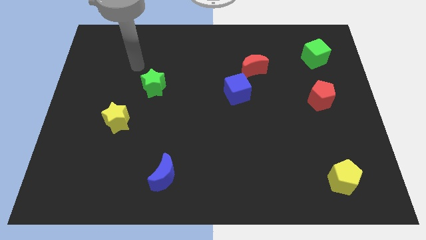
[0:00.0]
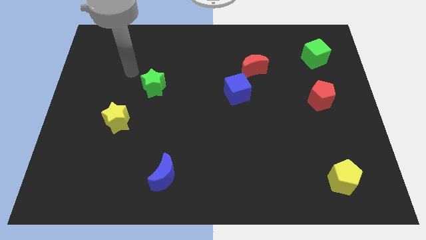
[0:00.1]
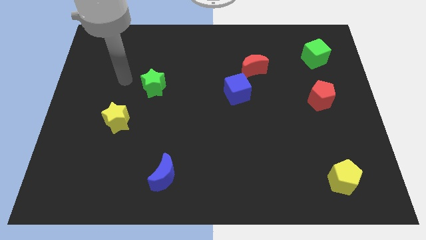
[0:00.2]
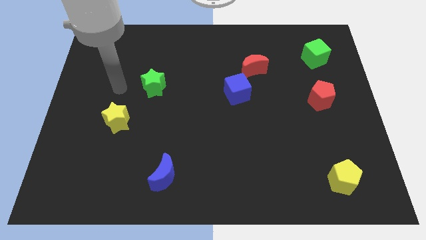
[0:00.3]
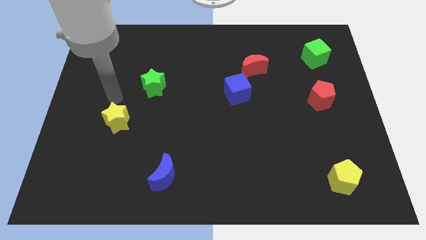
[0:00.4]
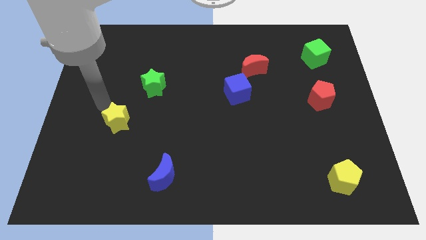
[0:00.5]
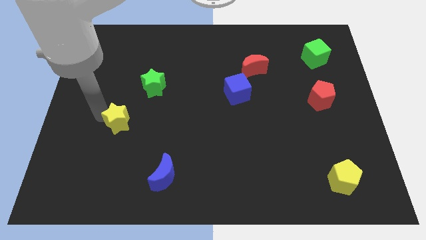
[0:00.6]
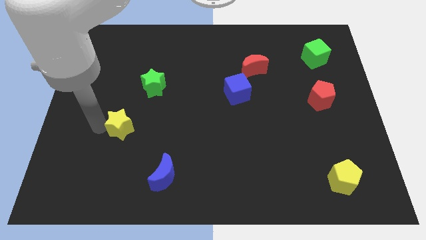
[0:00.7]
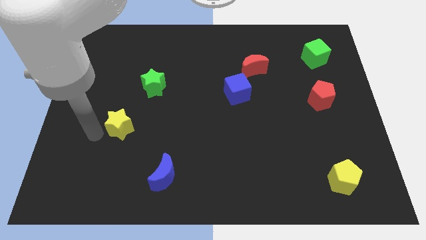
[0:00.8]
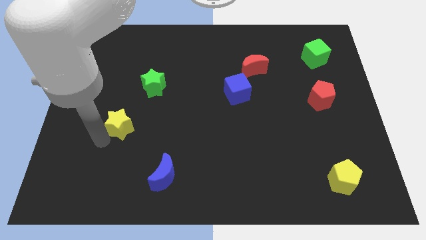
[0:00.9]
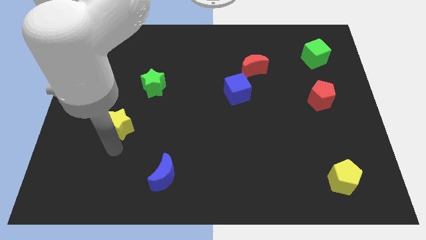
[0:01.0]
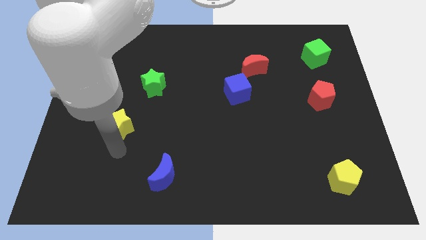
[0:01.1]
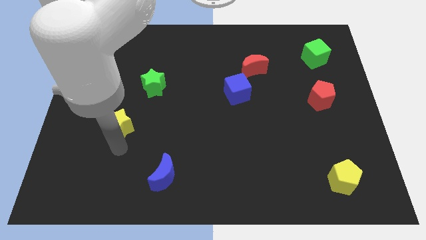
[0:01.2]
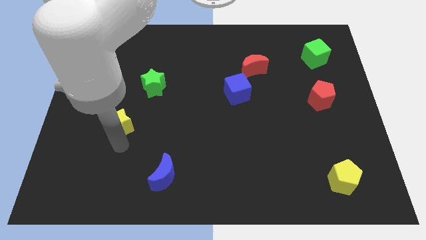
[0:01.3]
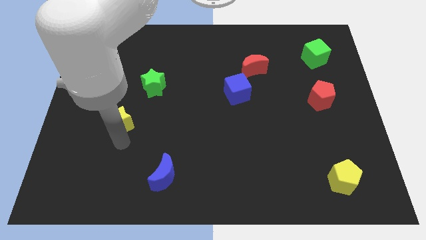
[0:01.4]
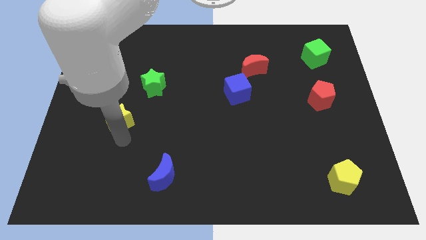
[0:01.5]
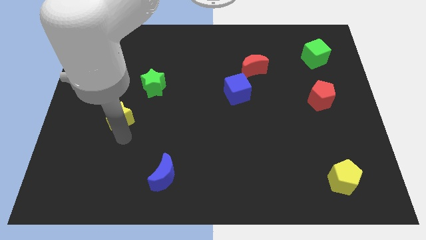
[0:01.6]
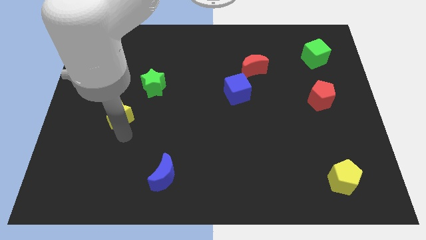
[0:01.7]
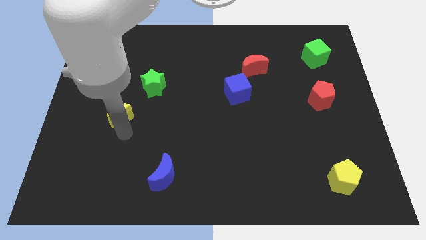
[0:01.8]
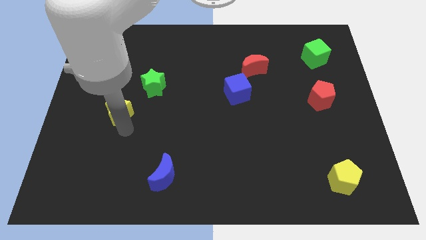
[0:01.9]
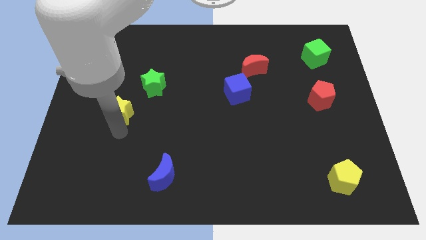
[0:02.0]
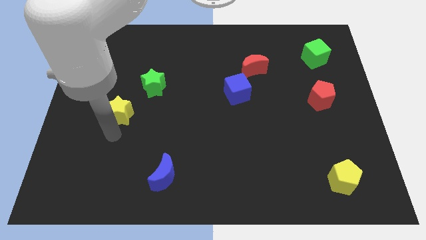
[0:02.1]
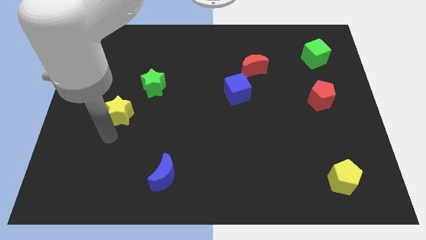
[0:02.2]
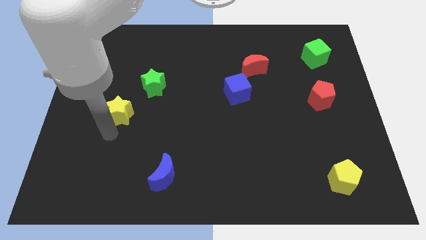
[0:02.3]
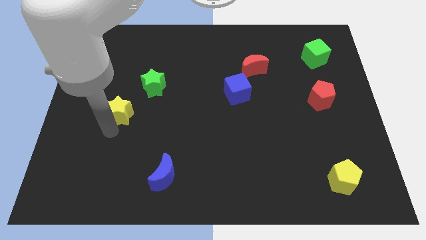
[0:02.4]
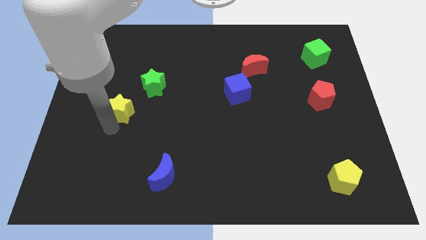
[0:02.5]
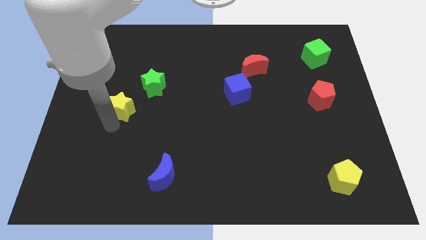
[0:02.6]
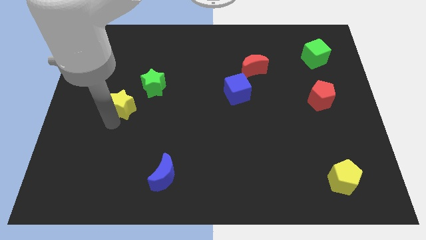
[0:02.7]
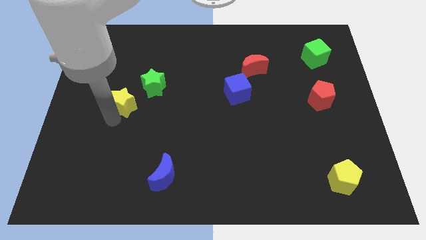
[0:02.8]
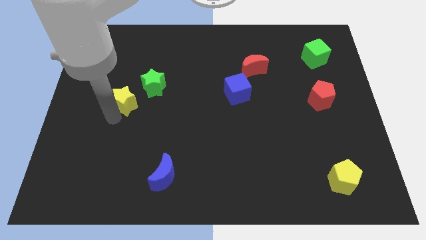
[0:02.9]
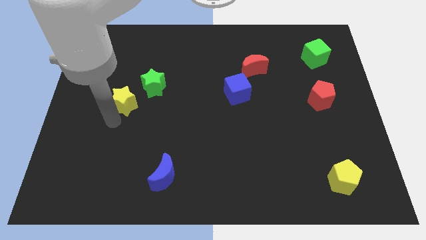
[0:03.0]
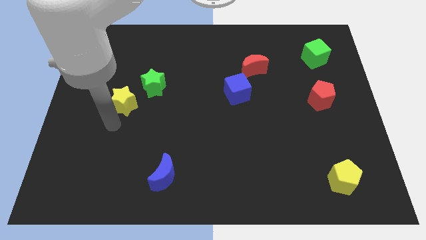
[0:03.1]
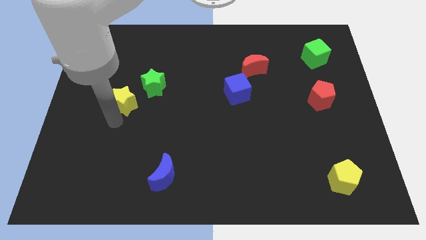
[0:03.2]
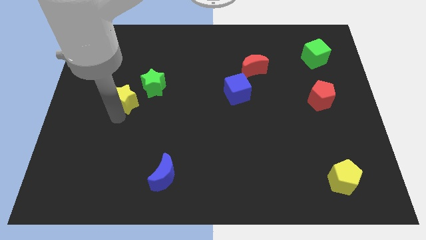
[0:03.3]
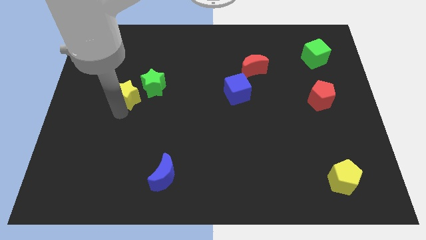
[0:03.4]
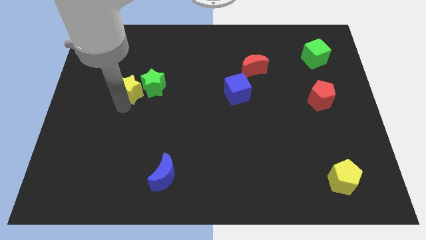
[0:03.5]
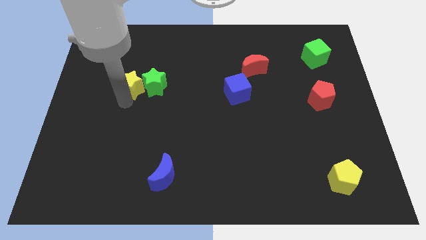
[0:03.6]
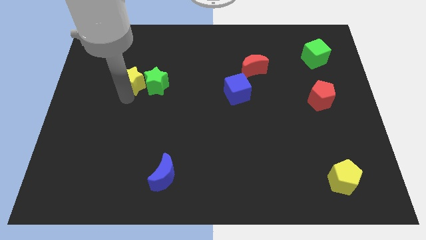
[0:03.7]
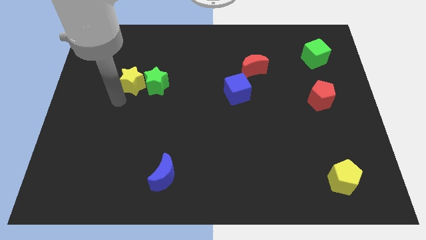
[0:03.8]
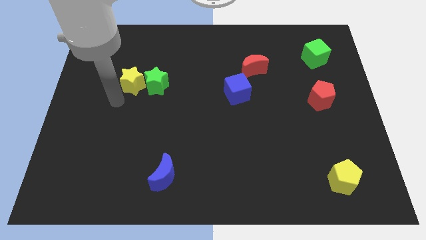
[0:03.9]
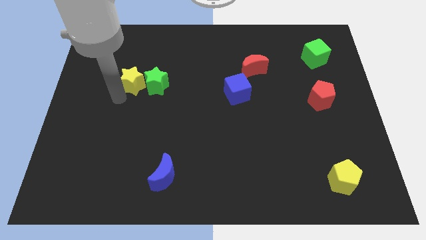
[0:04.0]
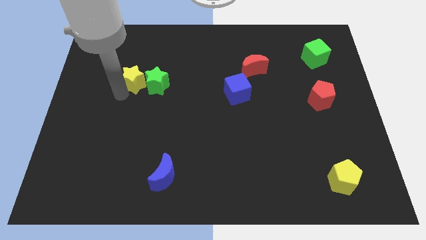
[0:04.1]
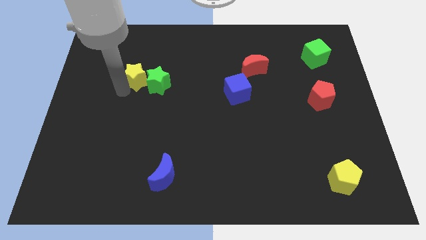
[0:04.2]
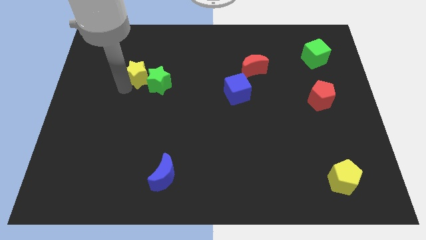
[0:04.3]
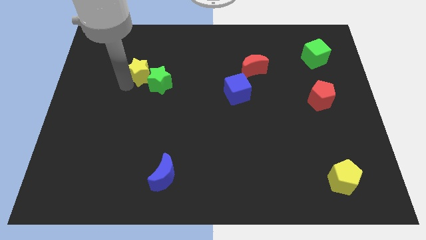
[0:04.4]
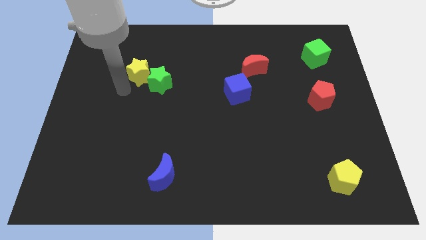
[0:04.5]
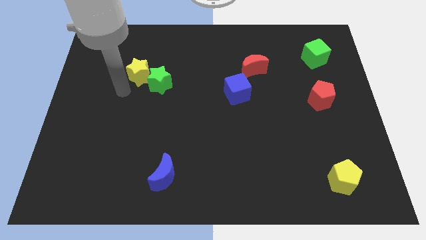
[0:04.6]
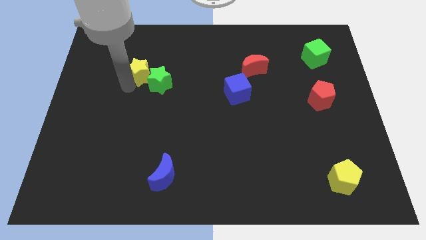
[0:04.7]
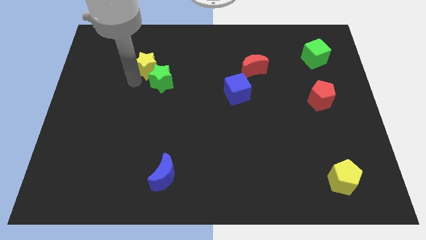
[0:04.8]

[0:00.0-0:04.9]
move the yellow star to the top side of the green star

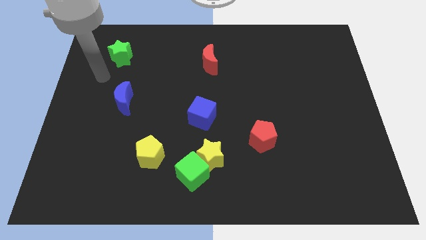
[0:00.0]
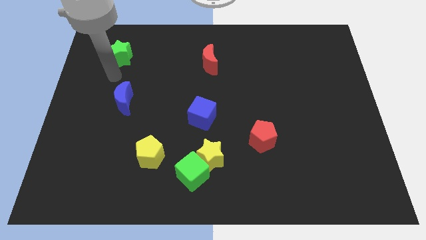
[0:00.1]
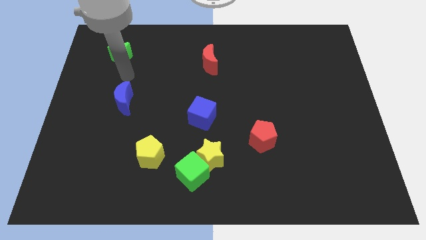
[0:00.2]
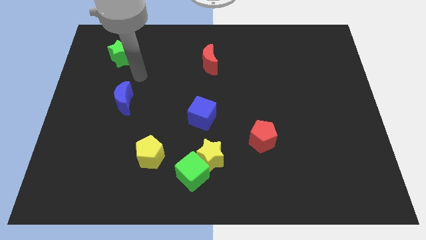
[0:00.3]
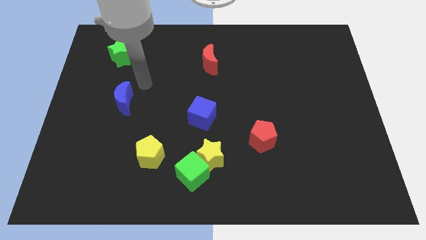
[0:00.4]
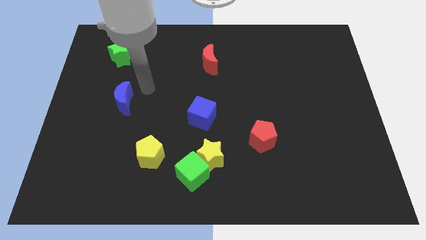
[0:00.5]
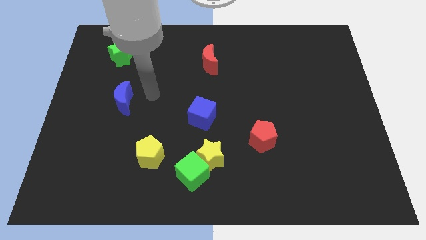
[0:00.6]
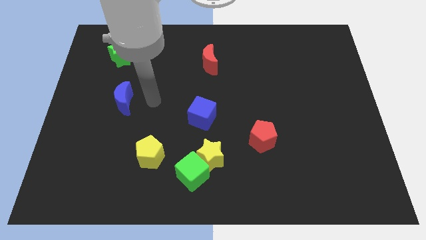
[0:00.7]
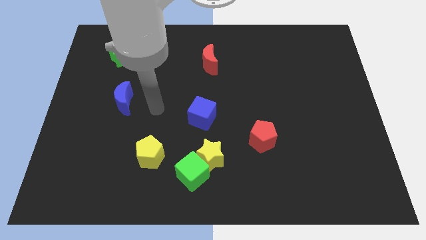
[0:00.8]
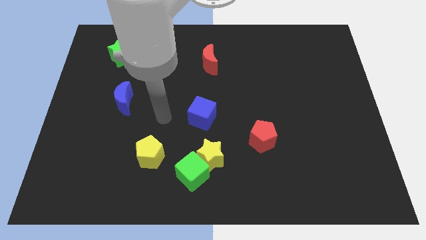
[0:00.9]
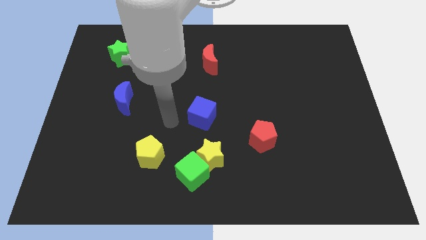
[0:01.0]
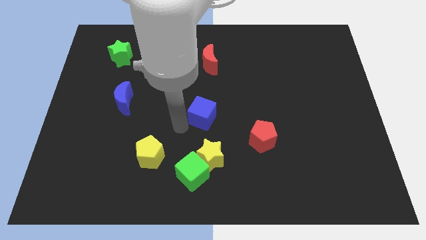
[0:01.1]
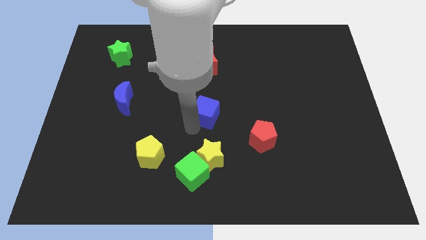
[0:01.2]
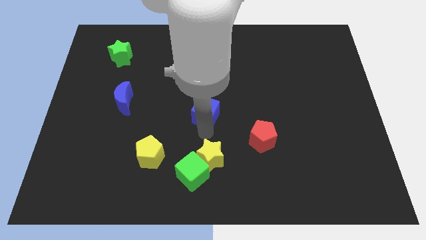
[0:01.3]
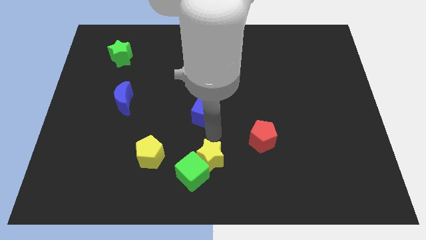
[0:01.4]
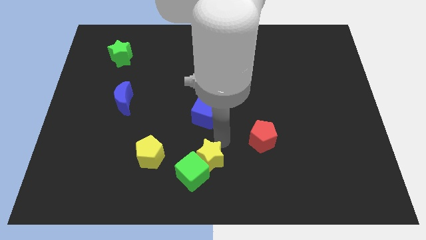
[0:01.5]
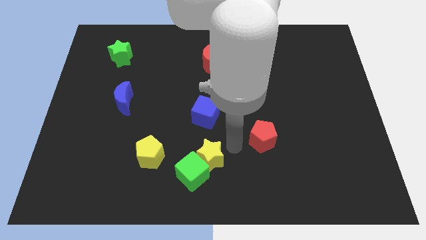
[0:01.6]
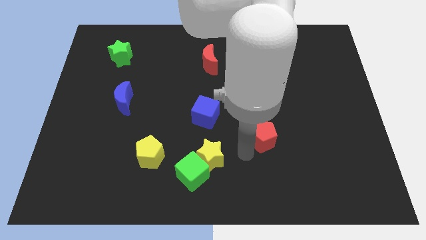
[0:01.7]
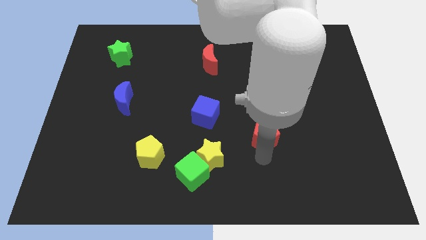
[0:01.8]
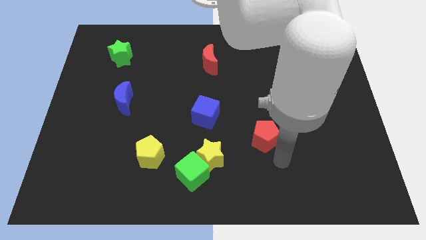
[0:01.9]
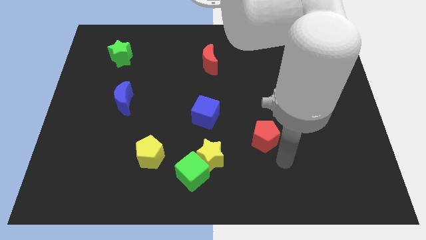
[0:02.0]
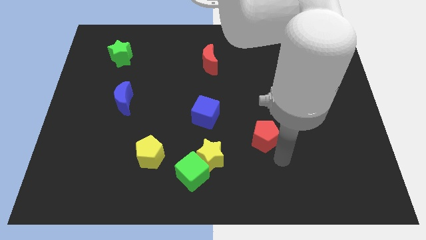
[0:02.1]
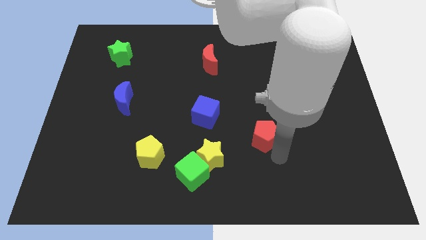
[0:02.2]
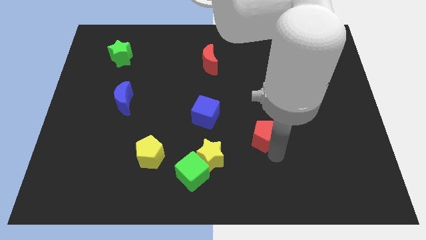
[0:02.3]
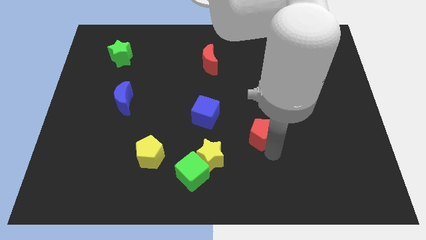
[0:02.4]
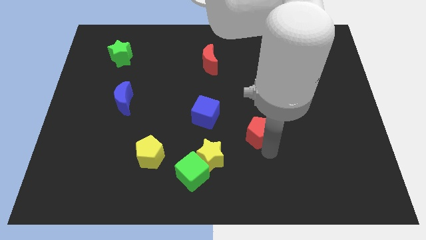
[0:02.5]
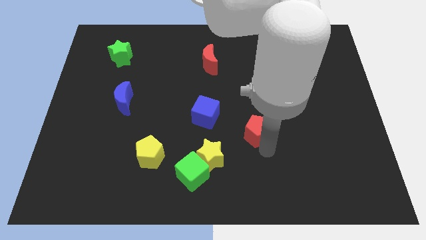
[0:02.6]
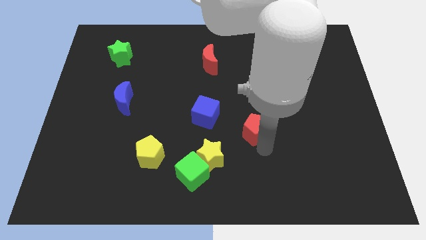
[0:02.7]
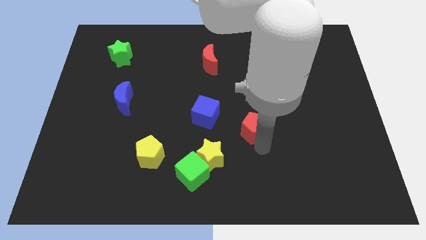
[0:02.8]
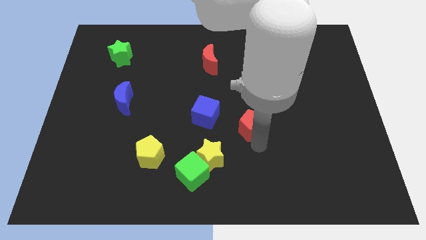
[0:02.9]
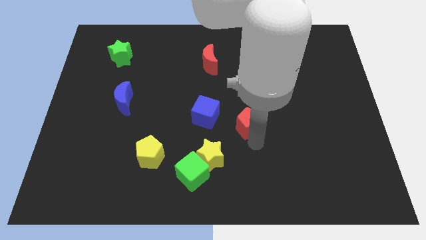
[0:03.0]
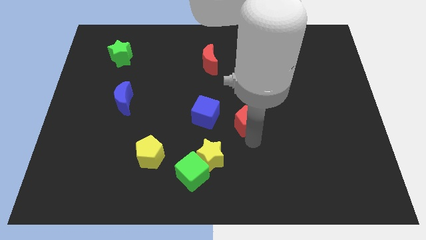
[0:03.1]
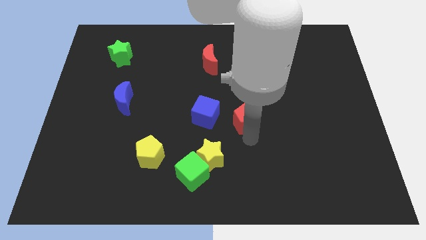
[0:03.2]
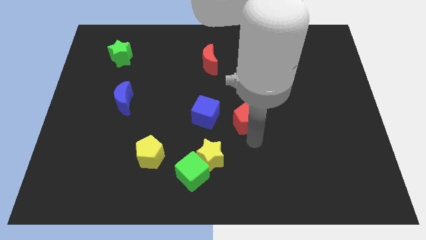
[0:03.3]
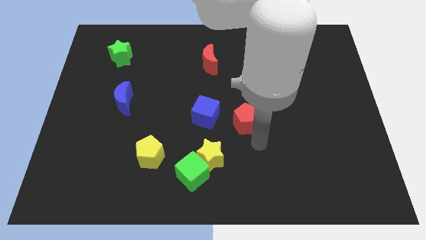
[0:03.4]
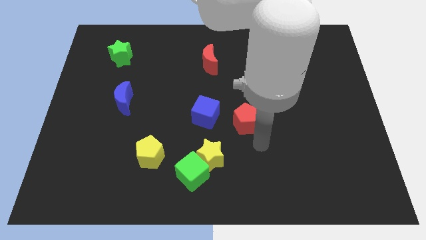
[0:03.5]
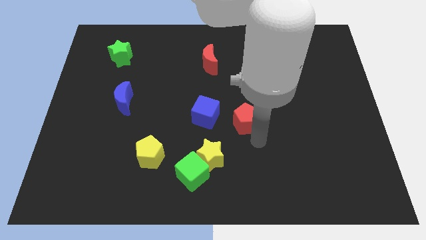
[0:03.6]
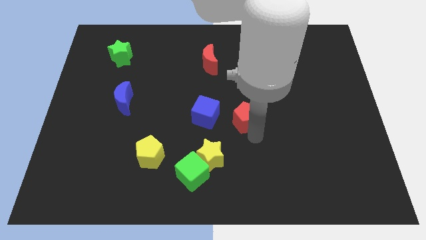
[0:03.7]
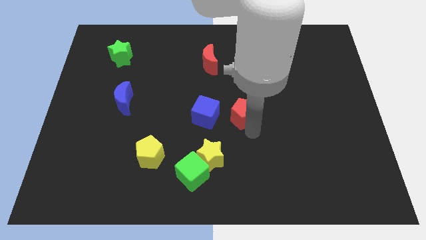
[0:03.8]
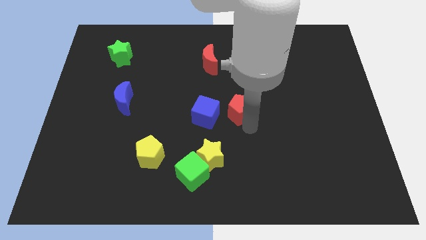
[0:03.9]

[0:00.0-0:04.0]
slide the red pentagon to the top right of the blue cube
